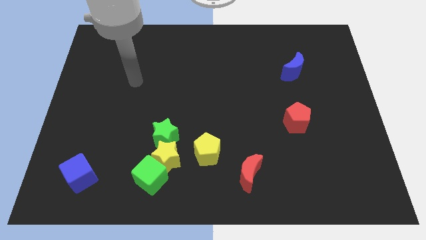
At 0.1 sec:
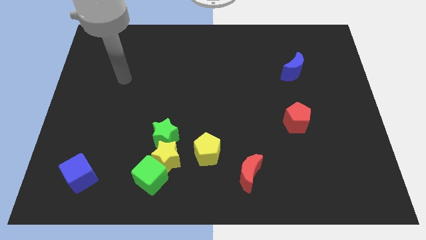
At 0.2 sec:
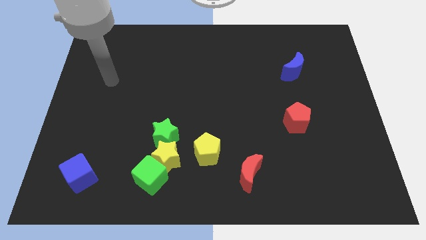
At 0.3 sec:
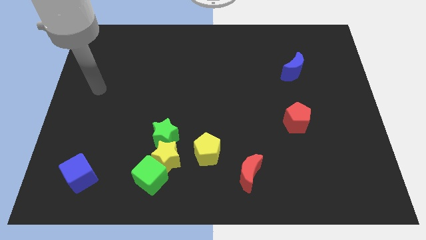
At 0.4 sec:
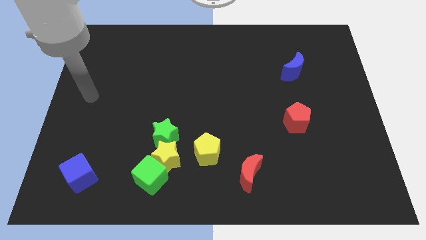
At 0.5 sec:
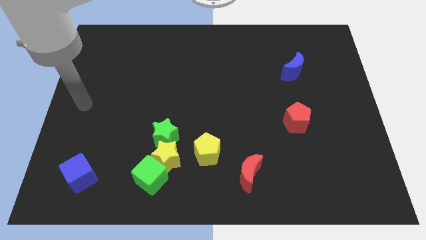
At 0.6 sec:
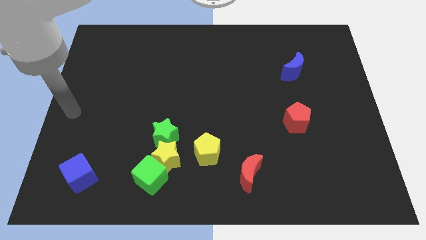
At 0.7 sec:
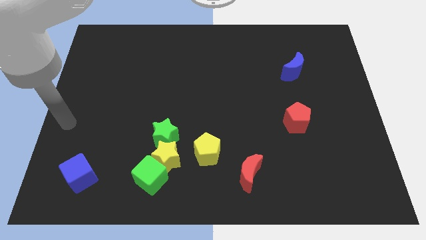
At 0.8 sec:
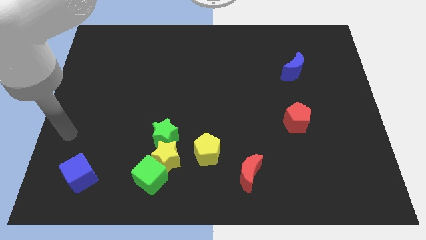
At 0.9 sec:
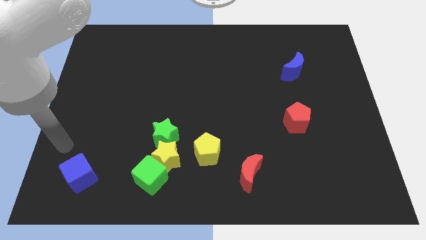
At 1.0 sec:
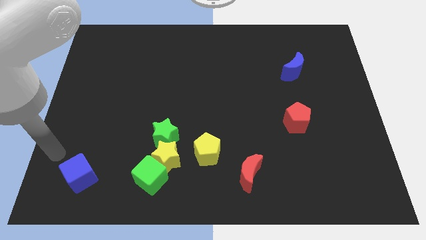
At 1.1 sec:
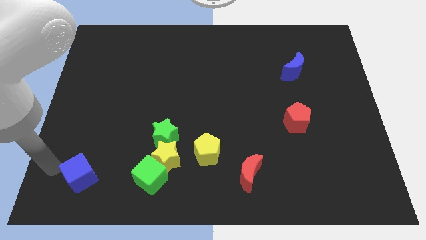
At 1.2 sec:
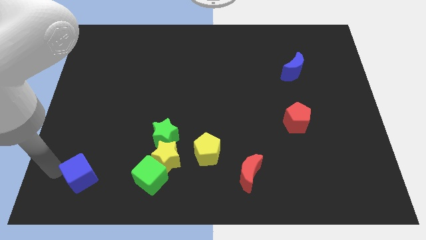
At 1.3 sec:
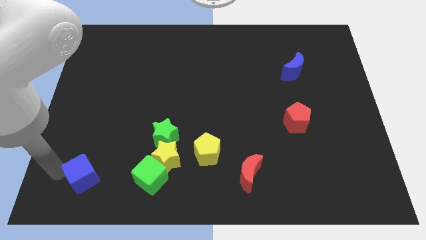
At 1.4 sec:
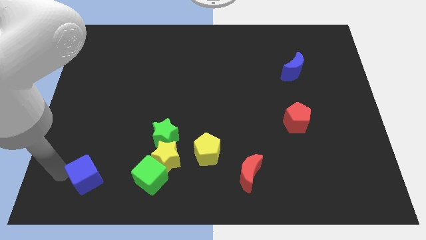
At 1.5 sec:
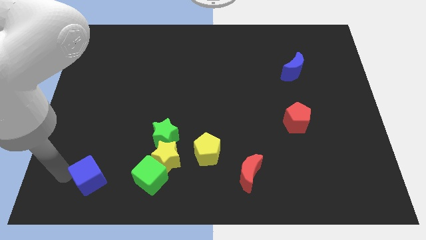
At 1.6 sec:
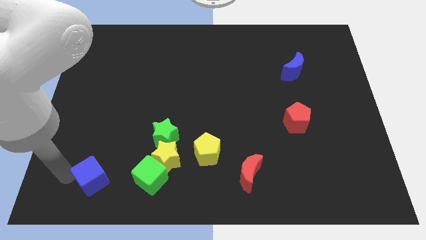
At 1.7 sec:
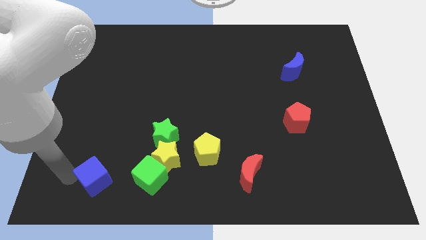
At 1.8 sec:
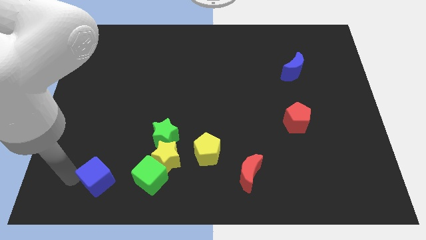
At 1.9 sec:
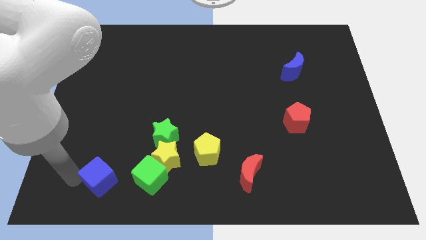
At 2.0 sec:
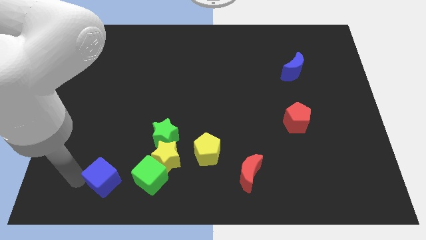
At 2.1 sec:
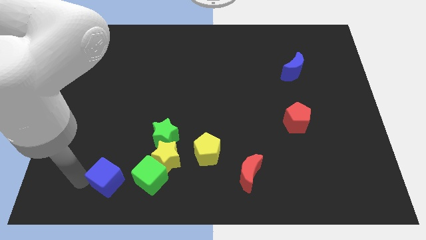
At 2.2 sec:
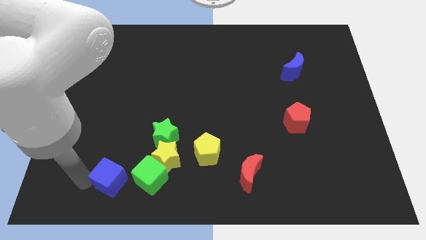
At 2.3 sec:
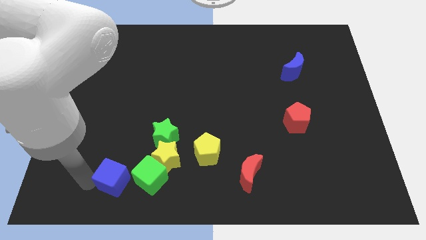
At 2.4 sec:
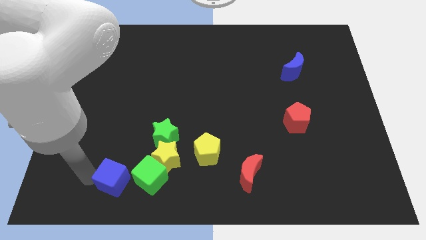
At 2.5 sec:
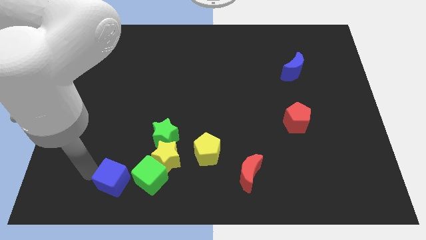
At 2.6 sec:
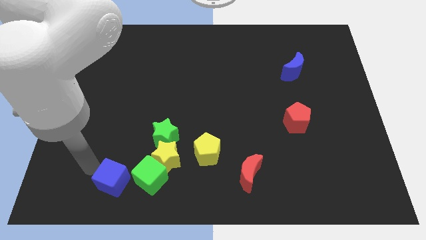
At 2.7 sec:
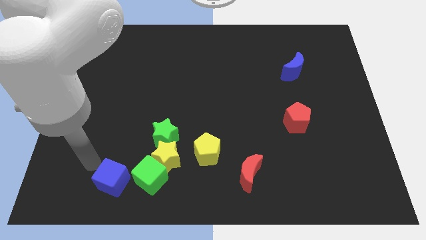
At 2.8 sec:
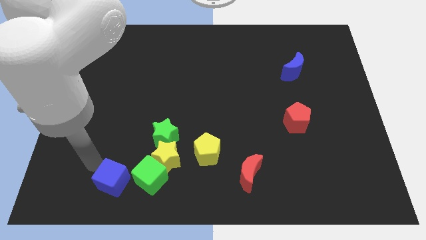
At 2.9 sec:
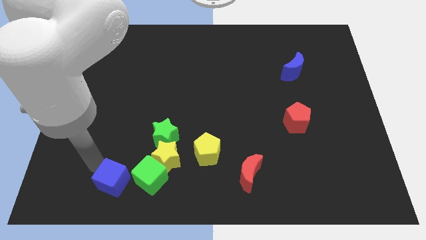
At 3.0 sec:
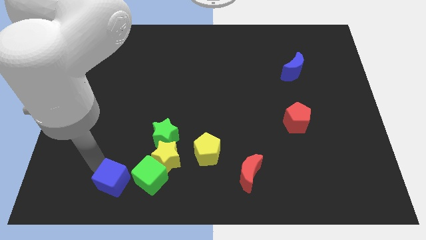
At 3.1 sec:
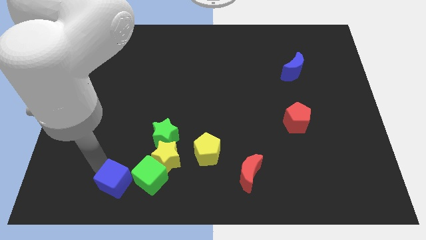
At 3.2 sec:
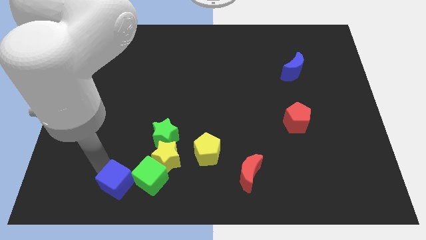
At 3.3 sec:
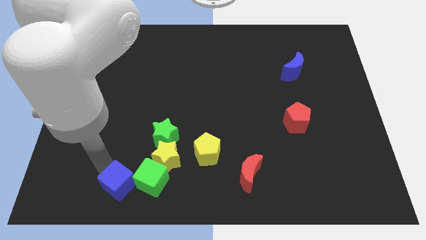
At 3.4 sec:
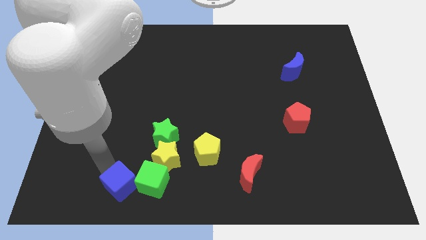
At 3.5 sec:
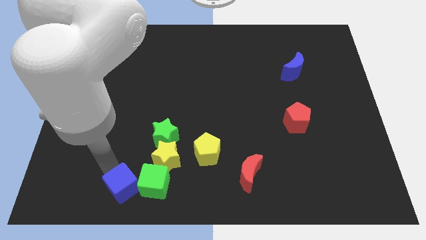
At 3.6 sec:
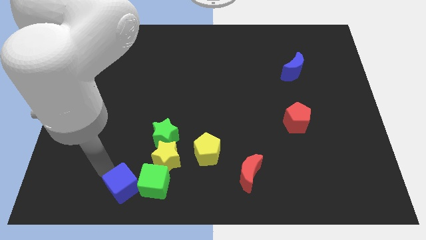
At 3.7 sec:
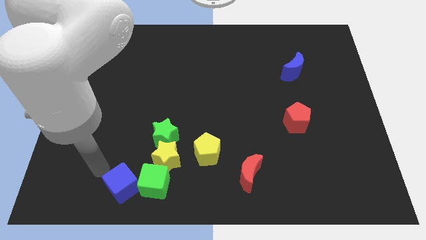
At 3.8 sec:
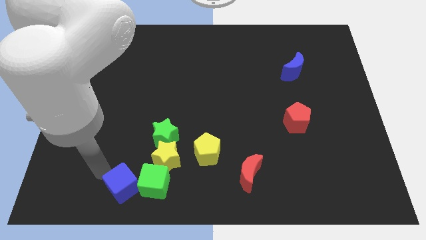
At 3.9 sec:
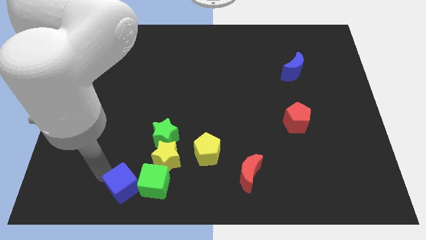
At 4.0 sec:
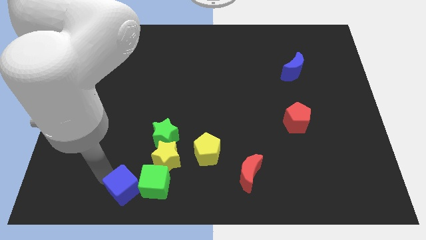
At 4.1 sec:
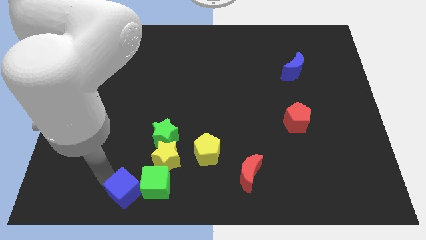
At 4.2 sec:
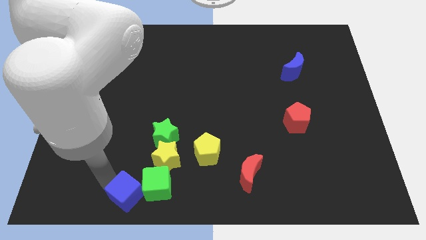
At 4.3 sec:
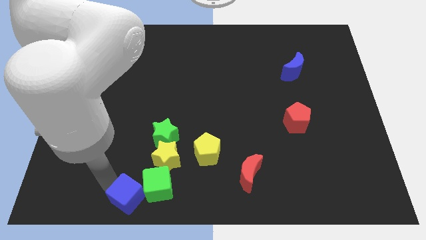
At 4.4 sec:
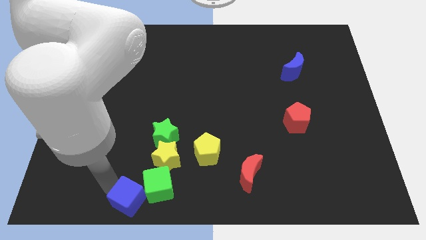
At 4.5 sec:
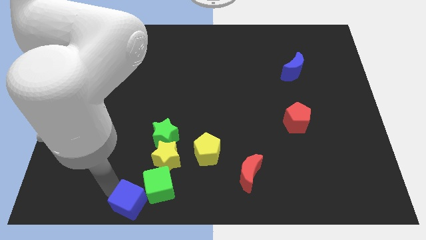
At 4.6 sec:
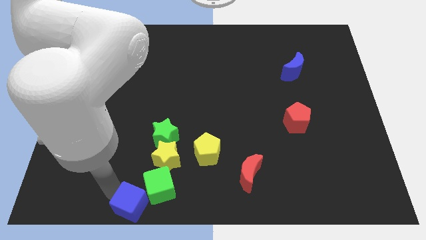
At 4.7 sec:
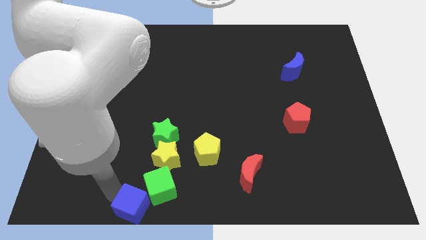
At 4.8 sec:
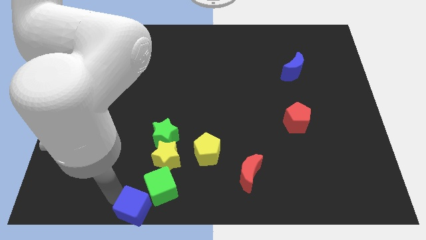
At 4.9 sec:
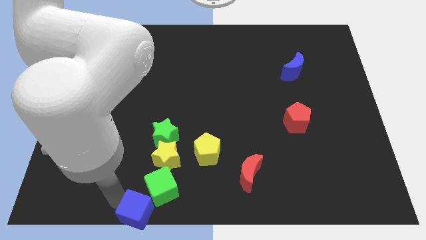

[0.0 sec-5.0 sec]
put the blue cube to the bottom side
